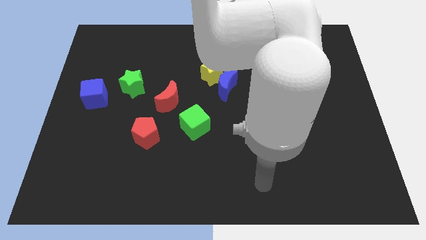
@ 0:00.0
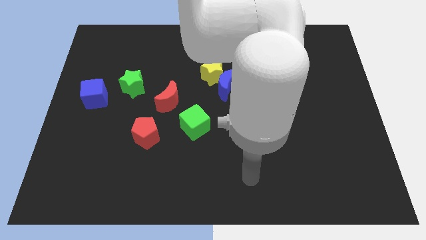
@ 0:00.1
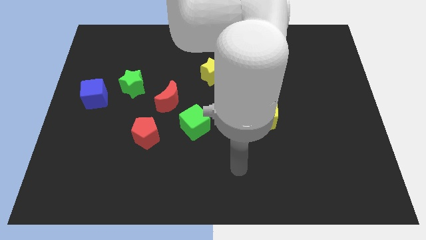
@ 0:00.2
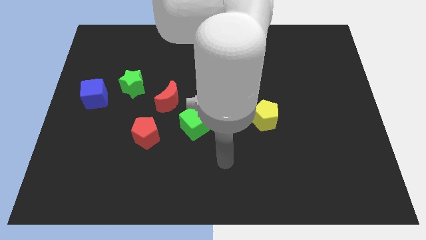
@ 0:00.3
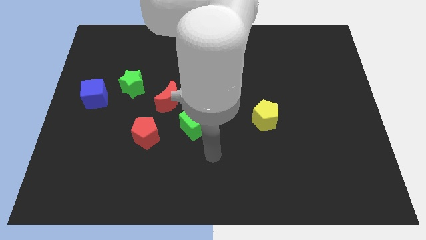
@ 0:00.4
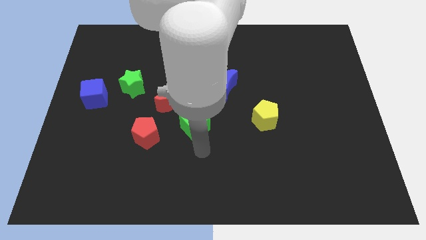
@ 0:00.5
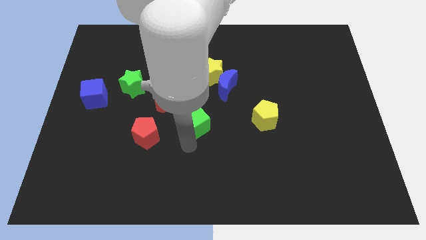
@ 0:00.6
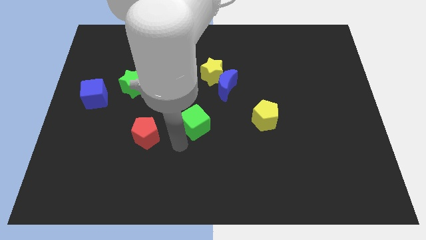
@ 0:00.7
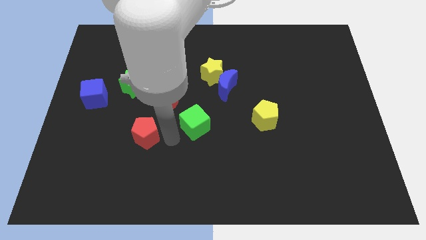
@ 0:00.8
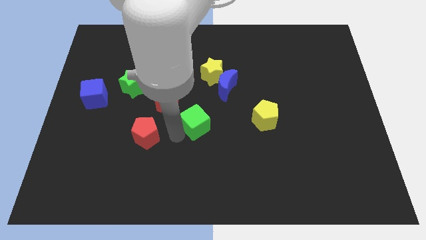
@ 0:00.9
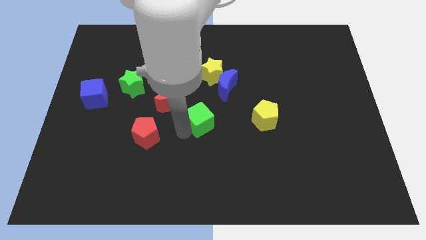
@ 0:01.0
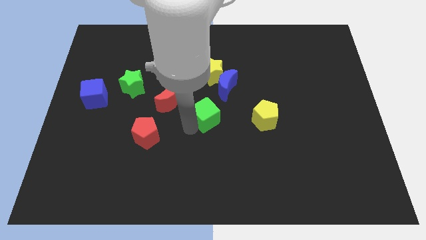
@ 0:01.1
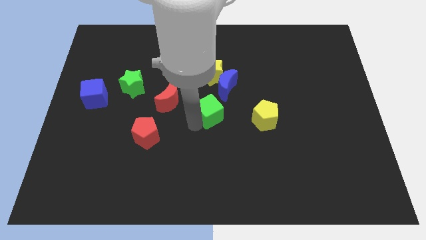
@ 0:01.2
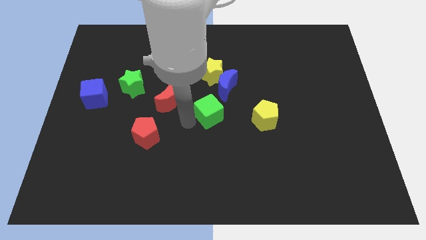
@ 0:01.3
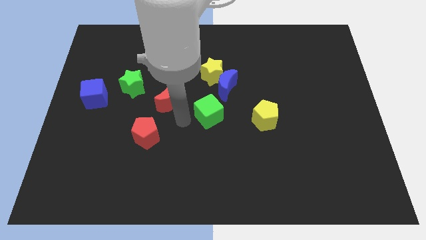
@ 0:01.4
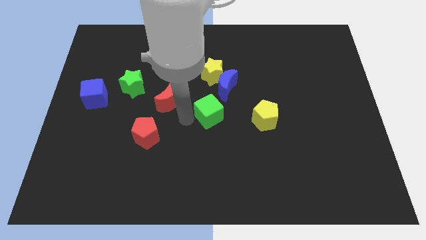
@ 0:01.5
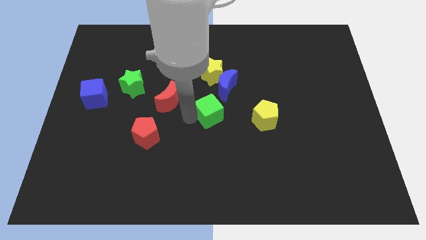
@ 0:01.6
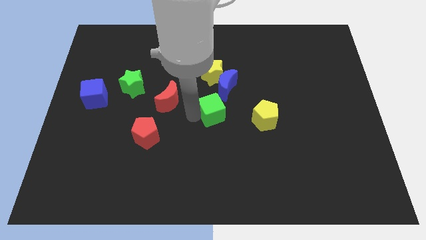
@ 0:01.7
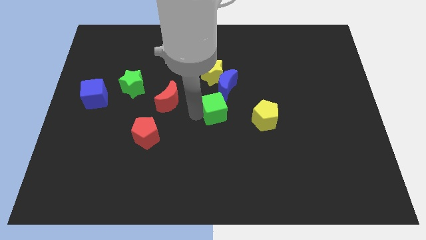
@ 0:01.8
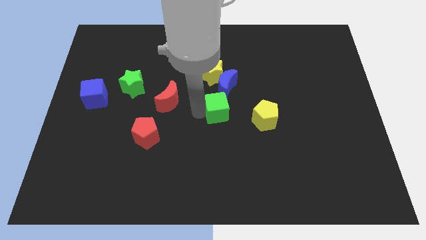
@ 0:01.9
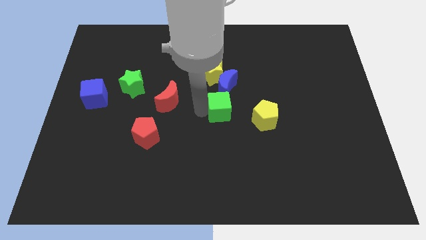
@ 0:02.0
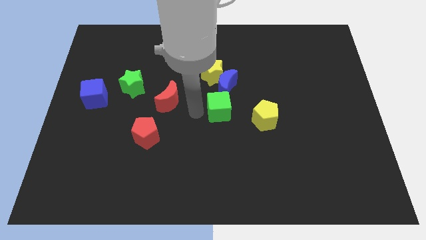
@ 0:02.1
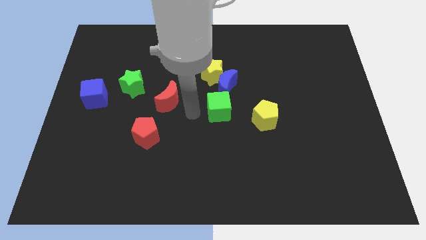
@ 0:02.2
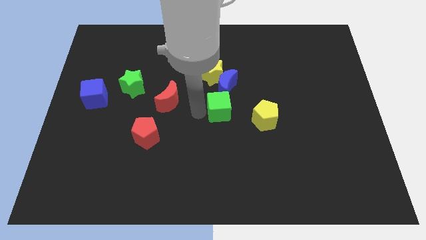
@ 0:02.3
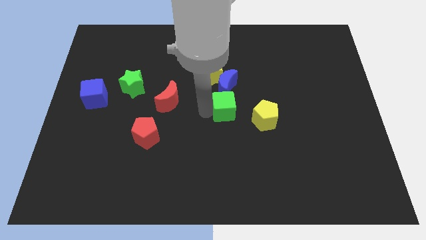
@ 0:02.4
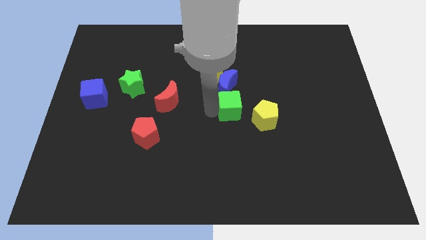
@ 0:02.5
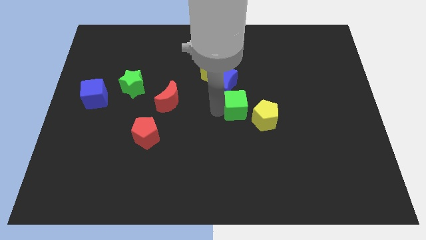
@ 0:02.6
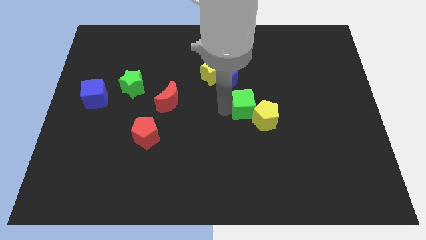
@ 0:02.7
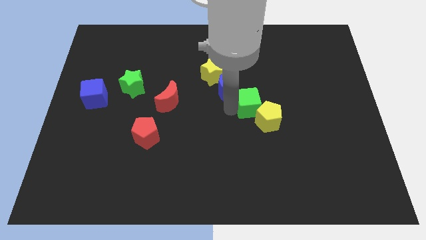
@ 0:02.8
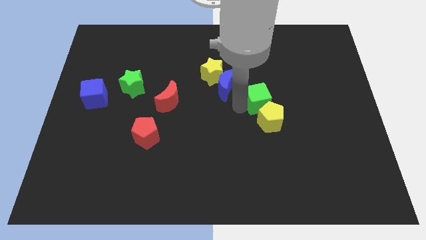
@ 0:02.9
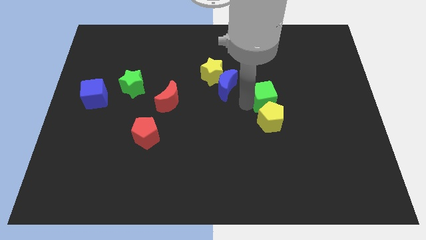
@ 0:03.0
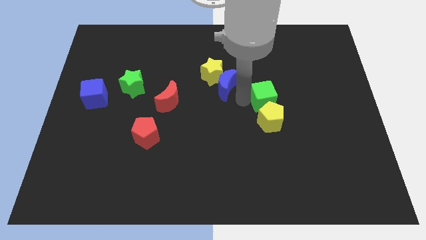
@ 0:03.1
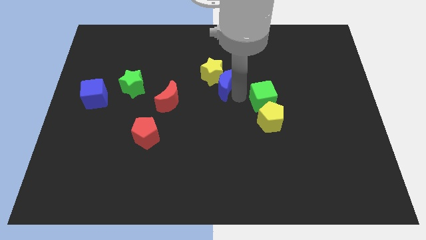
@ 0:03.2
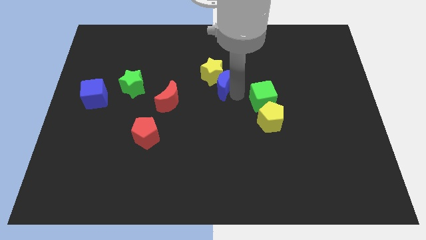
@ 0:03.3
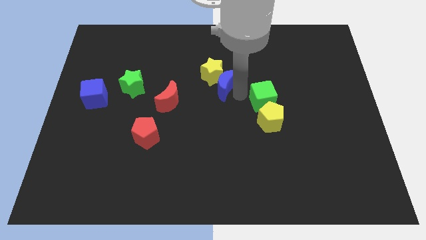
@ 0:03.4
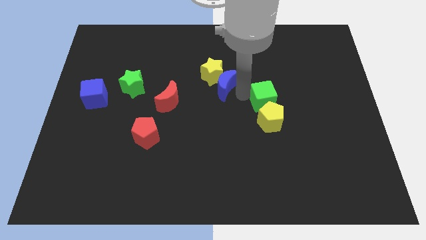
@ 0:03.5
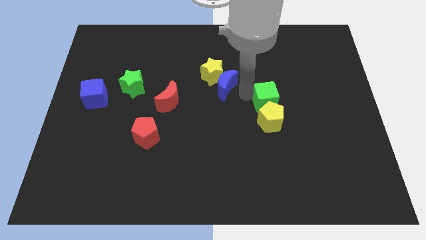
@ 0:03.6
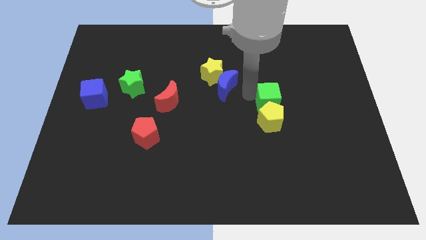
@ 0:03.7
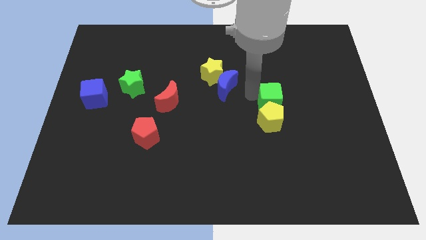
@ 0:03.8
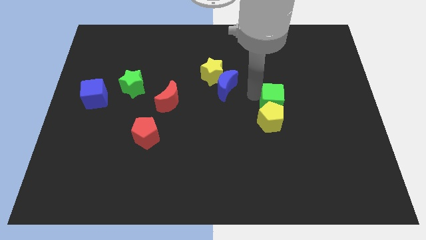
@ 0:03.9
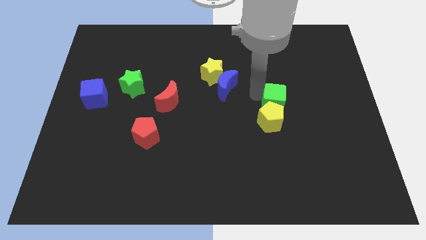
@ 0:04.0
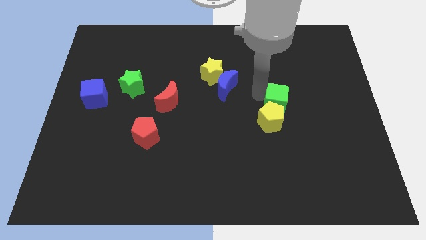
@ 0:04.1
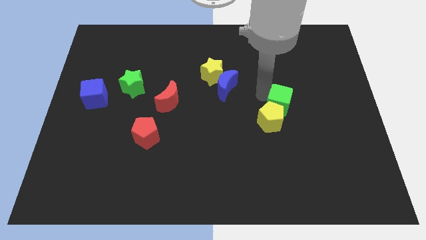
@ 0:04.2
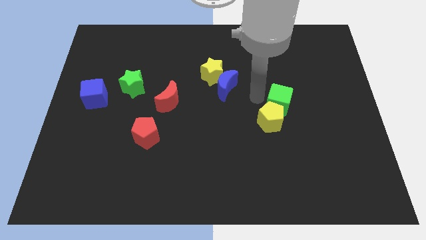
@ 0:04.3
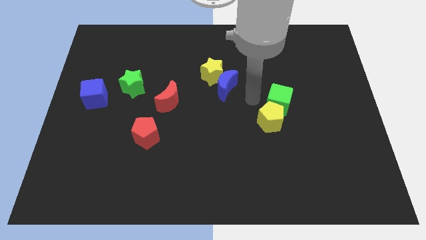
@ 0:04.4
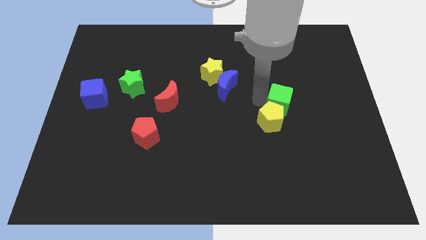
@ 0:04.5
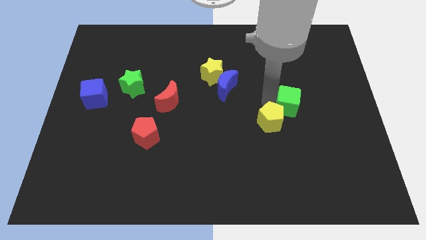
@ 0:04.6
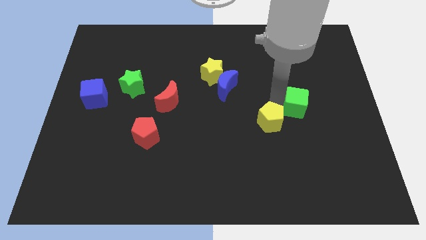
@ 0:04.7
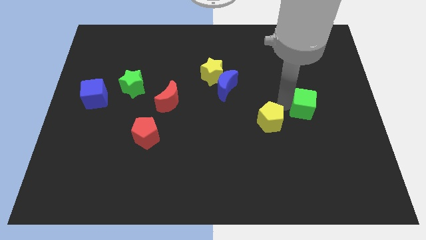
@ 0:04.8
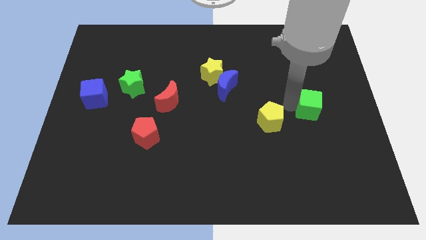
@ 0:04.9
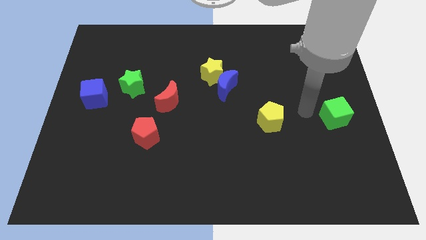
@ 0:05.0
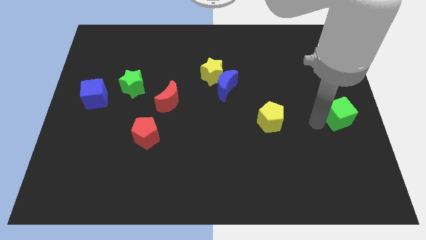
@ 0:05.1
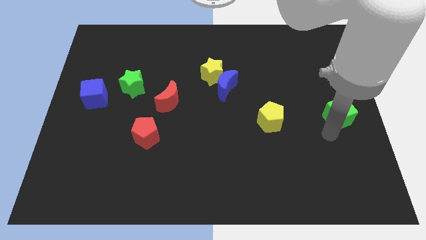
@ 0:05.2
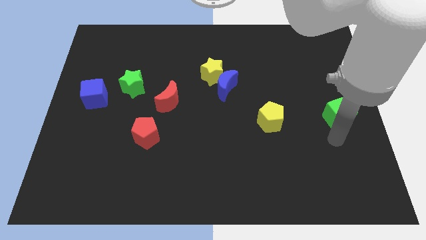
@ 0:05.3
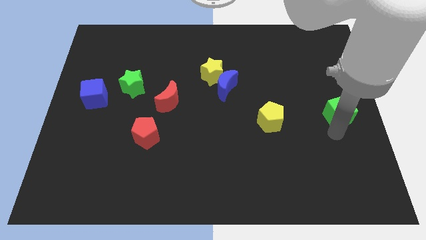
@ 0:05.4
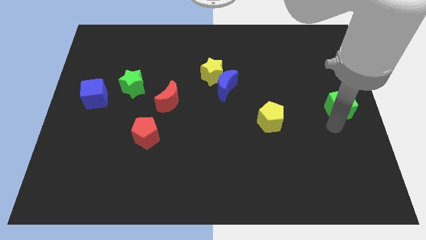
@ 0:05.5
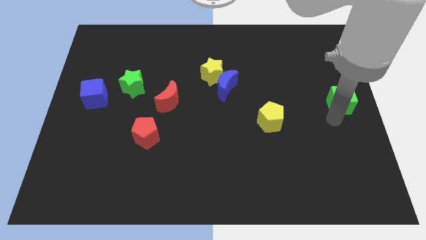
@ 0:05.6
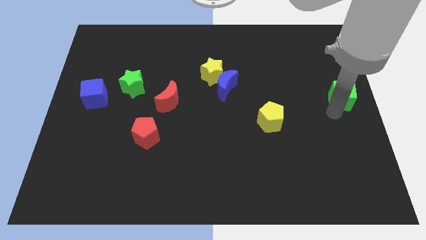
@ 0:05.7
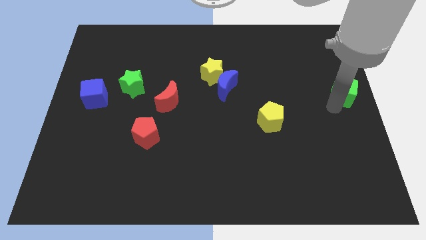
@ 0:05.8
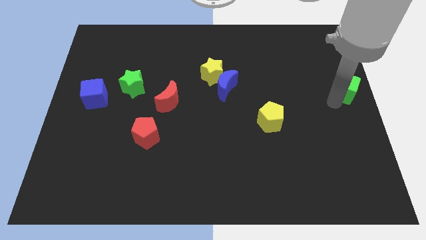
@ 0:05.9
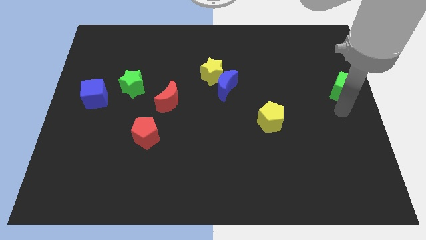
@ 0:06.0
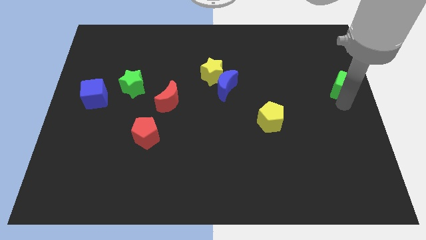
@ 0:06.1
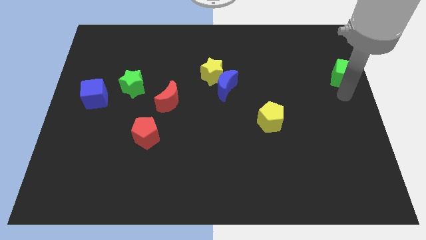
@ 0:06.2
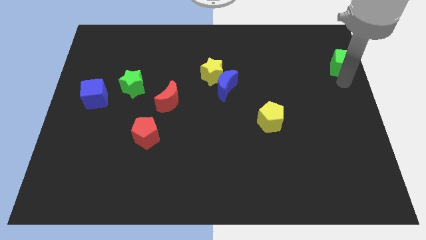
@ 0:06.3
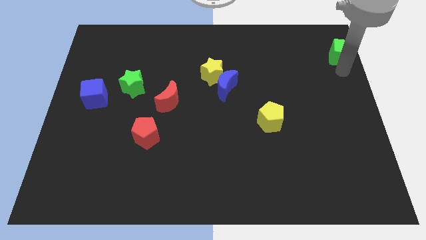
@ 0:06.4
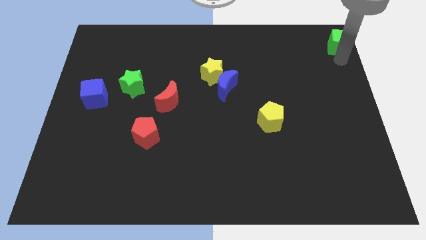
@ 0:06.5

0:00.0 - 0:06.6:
push the green cube to the upper right corner

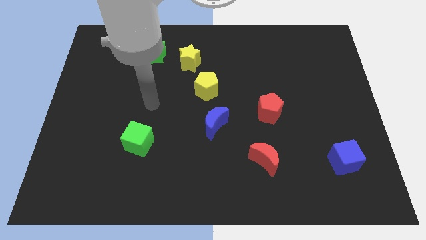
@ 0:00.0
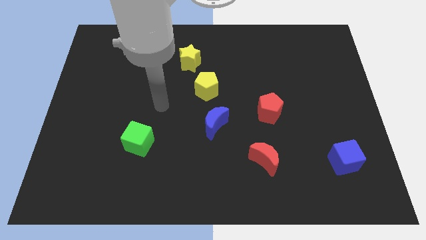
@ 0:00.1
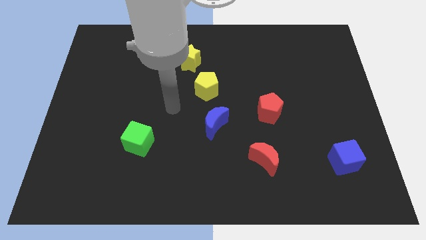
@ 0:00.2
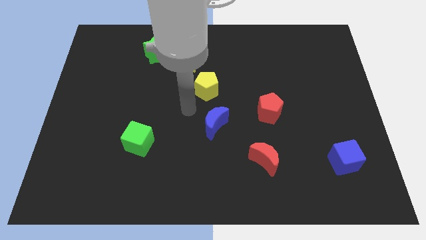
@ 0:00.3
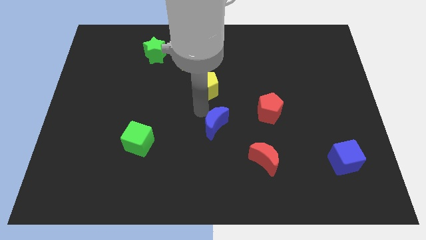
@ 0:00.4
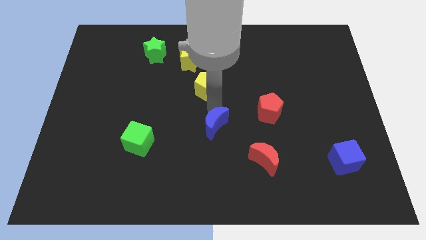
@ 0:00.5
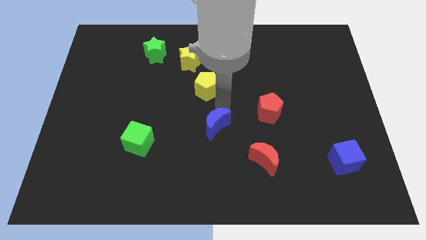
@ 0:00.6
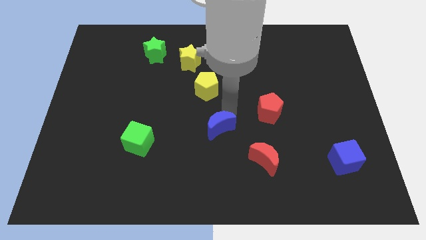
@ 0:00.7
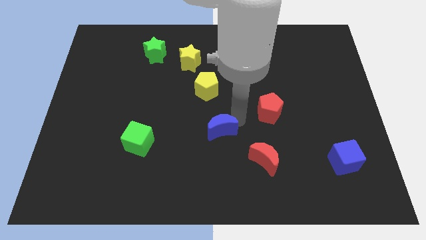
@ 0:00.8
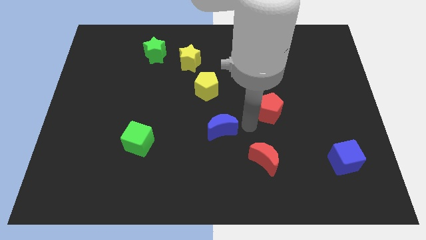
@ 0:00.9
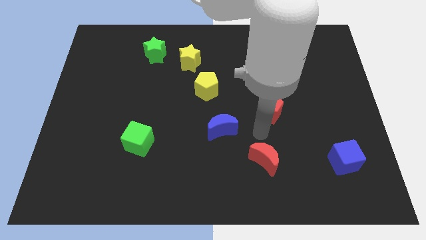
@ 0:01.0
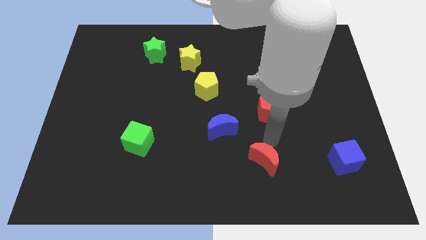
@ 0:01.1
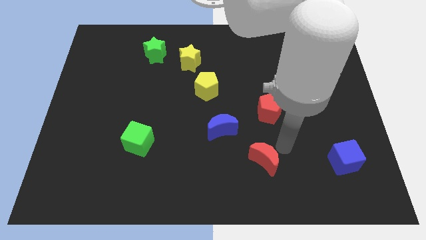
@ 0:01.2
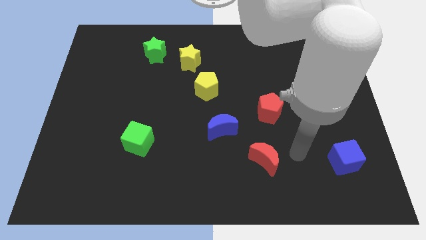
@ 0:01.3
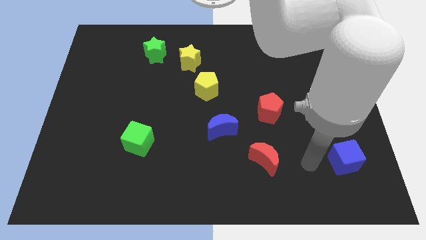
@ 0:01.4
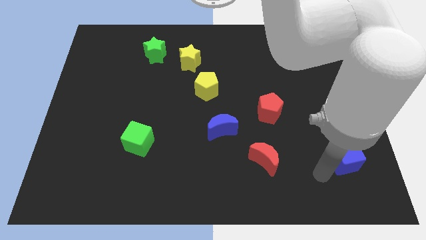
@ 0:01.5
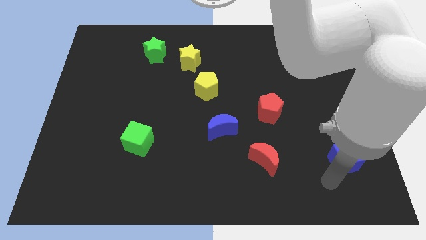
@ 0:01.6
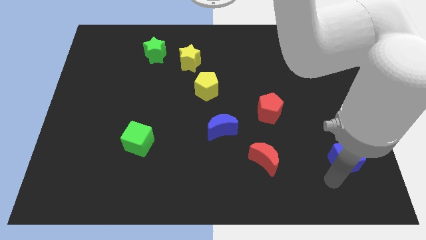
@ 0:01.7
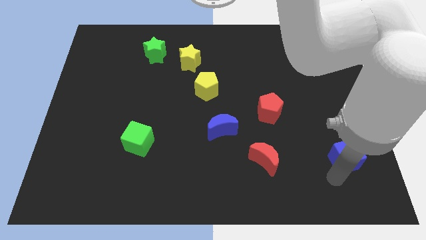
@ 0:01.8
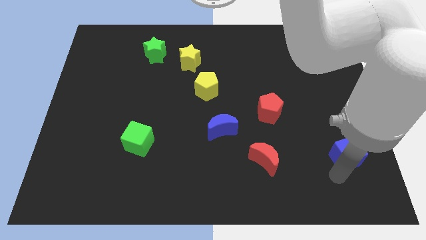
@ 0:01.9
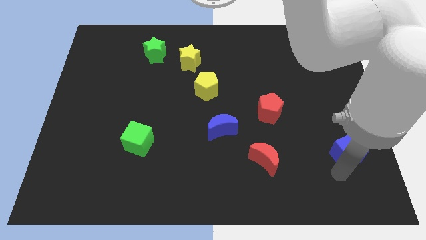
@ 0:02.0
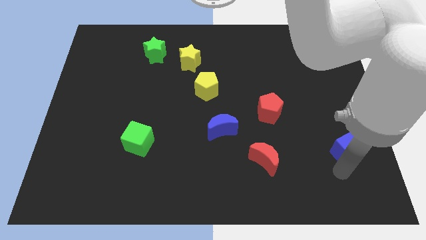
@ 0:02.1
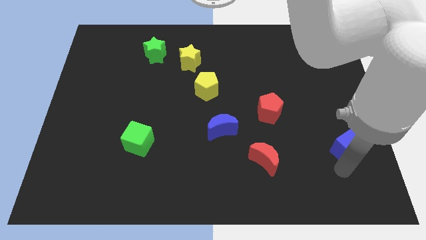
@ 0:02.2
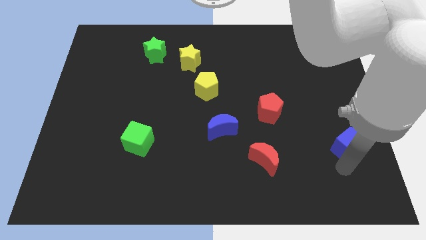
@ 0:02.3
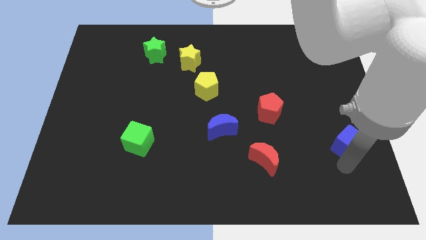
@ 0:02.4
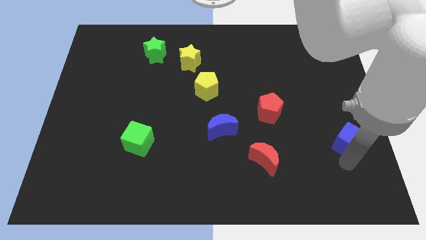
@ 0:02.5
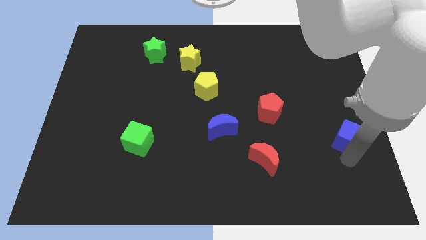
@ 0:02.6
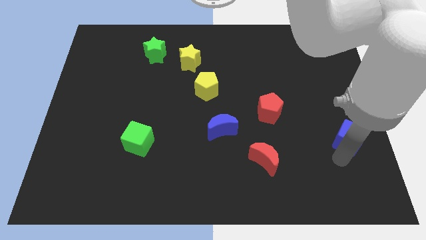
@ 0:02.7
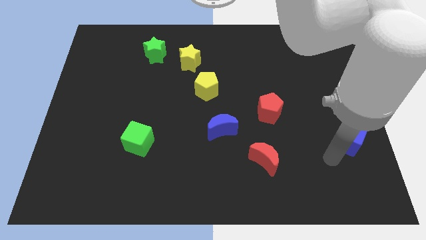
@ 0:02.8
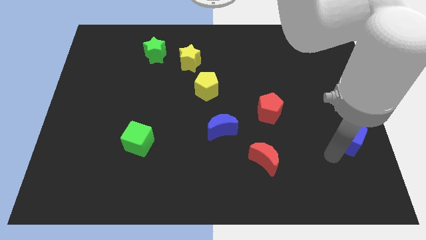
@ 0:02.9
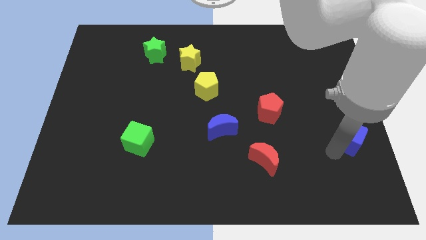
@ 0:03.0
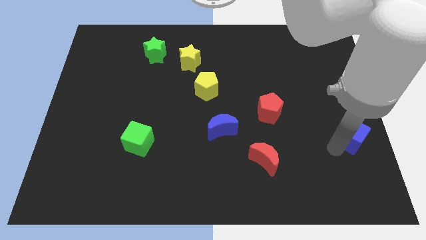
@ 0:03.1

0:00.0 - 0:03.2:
slide the blue cube to the right side
